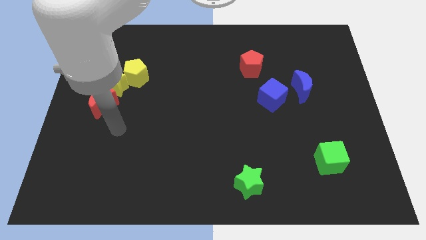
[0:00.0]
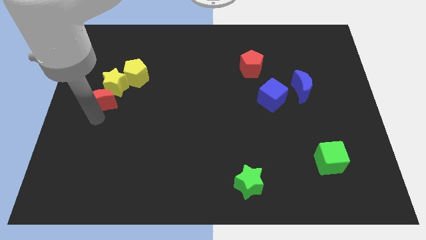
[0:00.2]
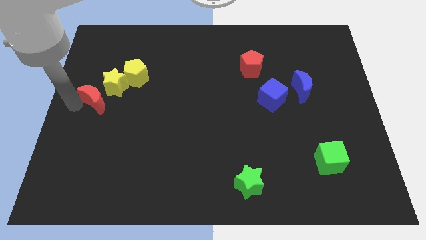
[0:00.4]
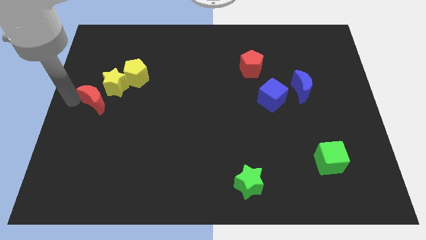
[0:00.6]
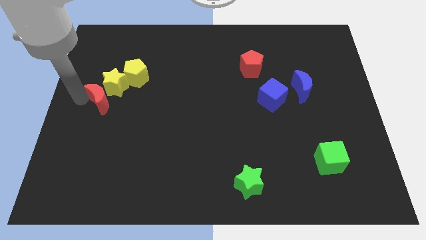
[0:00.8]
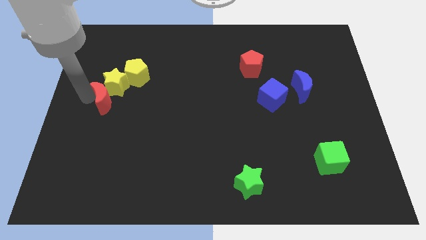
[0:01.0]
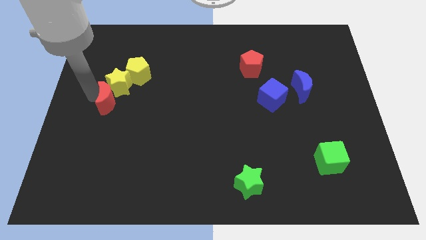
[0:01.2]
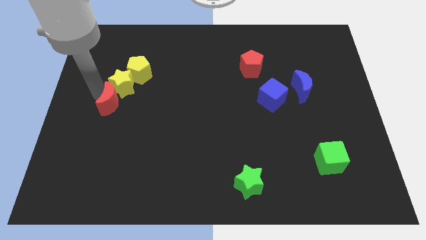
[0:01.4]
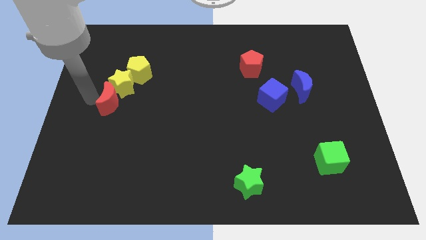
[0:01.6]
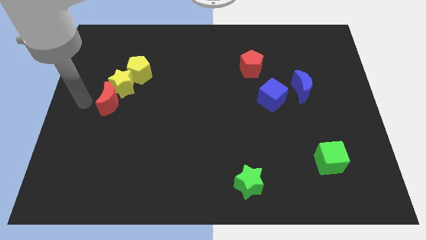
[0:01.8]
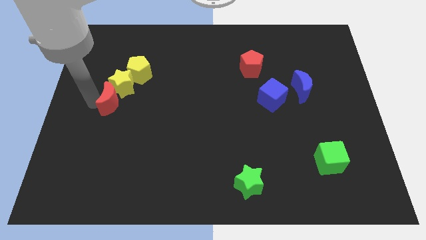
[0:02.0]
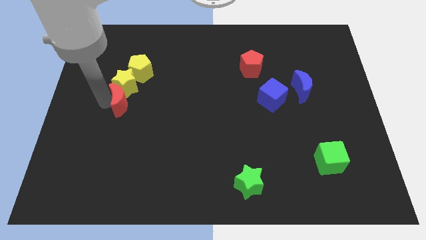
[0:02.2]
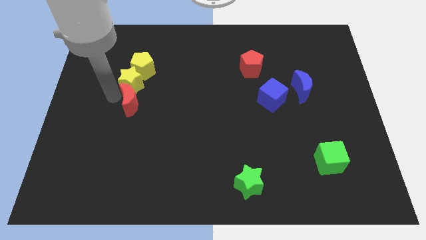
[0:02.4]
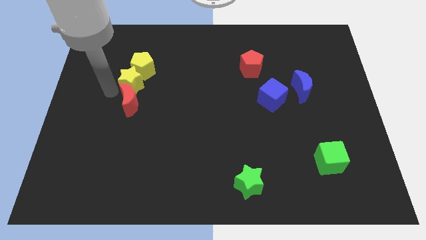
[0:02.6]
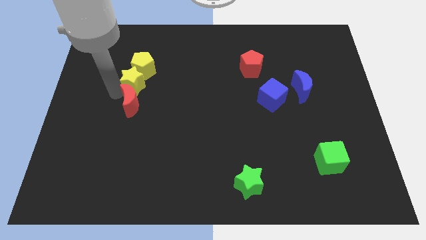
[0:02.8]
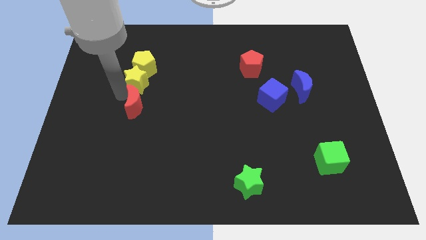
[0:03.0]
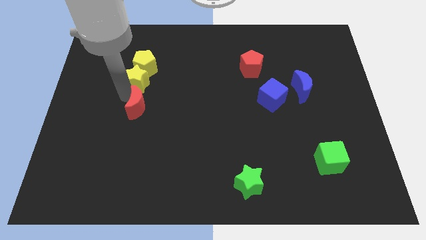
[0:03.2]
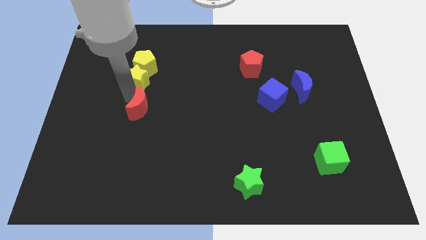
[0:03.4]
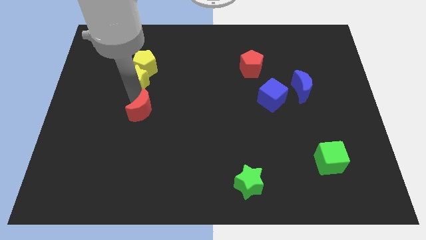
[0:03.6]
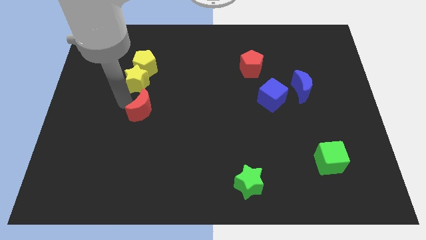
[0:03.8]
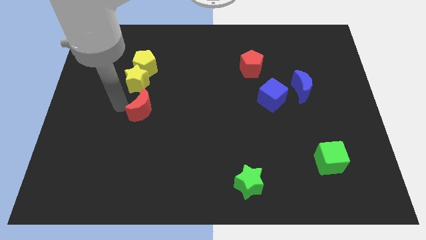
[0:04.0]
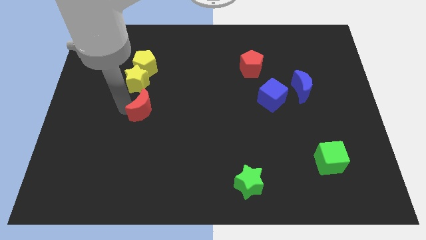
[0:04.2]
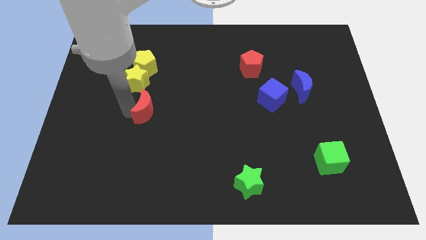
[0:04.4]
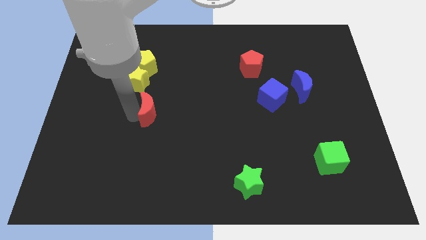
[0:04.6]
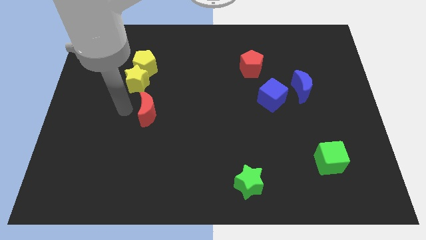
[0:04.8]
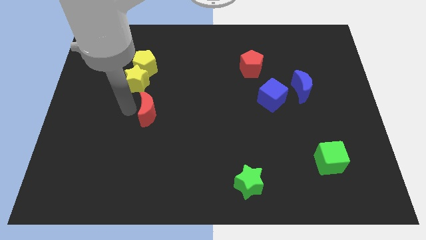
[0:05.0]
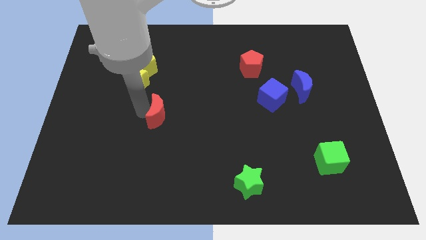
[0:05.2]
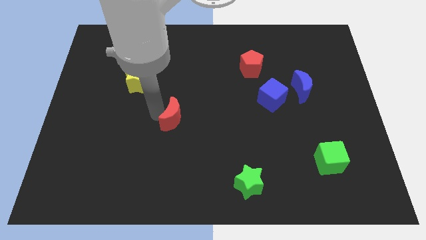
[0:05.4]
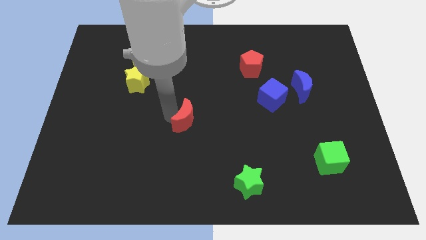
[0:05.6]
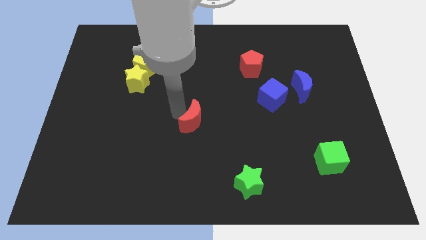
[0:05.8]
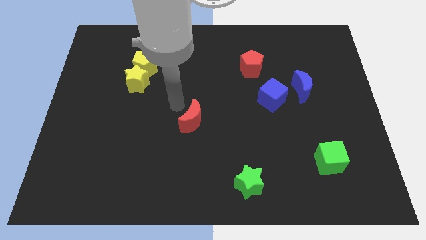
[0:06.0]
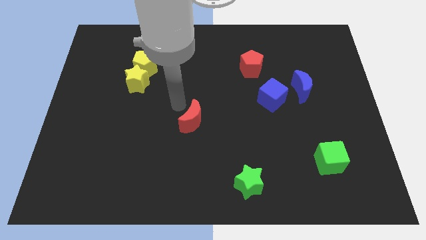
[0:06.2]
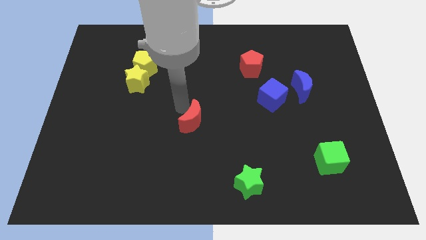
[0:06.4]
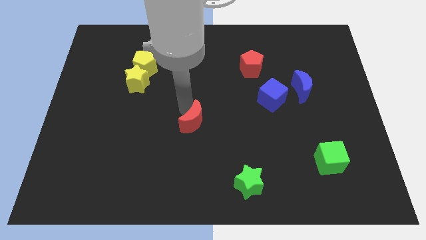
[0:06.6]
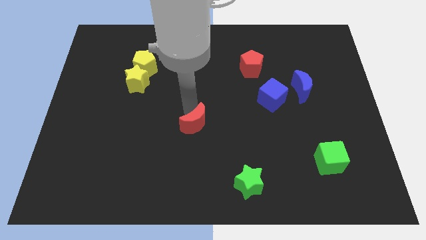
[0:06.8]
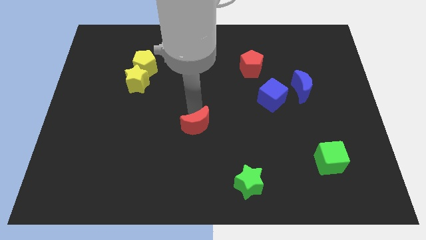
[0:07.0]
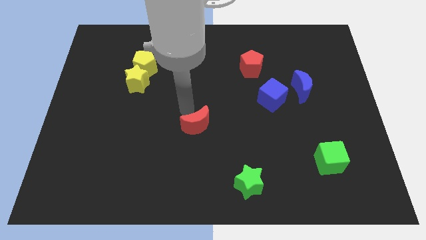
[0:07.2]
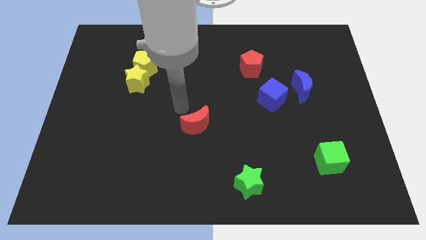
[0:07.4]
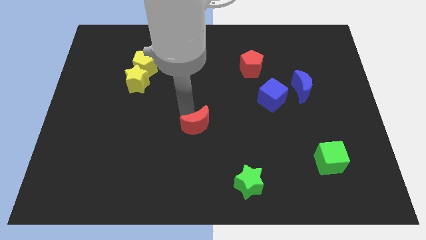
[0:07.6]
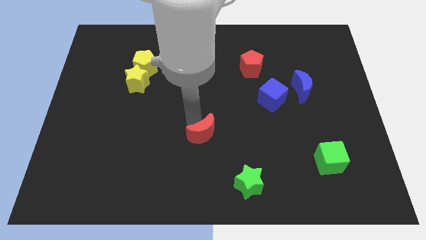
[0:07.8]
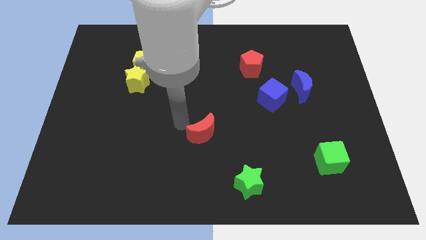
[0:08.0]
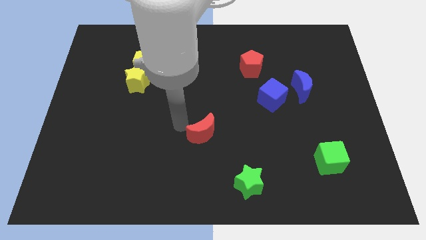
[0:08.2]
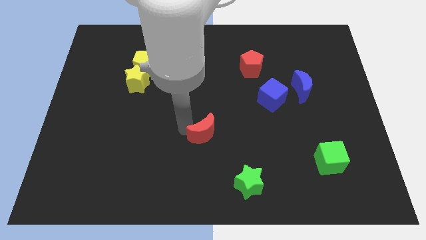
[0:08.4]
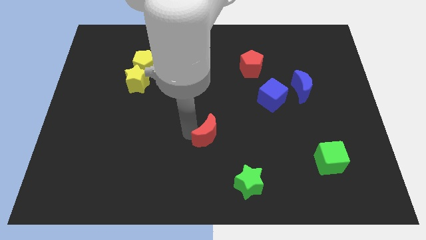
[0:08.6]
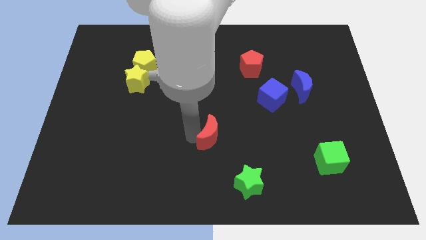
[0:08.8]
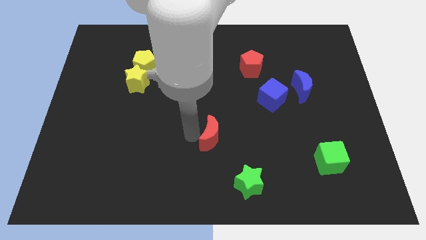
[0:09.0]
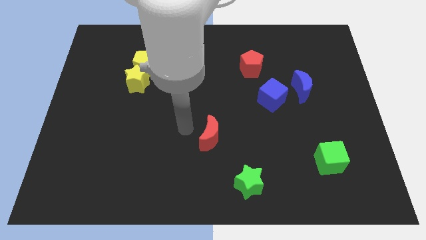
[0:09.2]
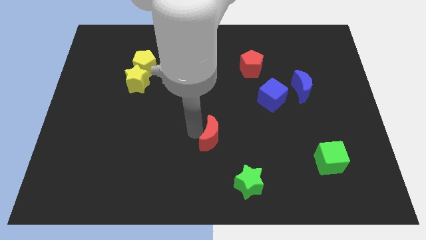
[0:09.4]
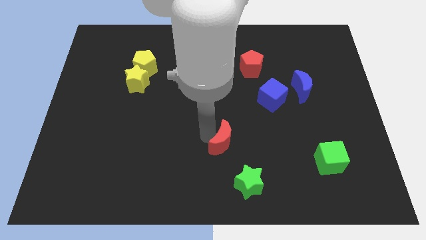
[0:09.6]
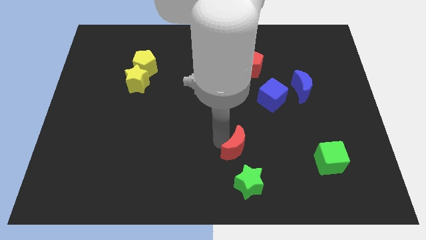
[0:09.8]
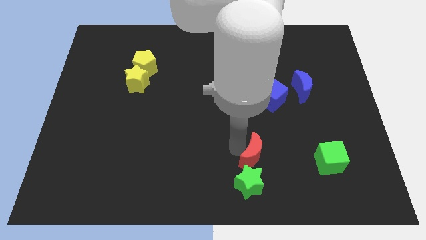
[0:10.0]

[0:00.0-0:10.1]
slide the red moon diagonally up and to the right of the green star

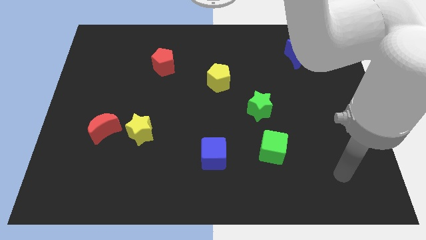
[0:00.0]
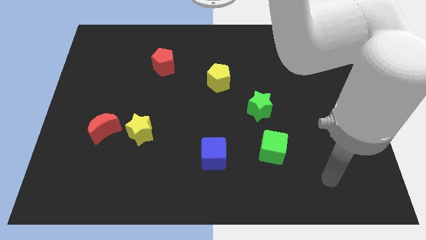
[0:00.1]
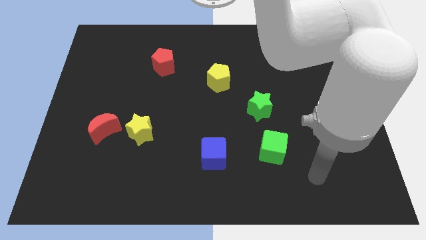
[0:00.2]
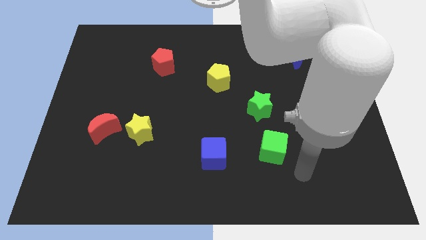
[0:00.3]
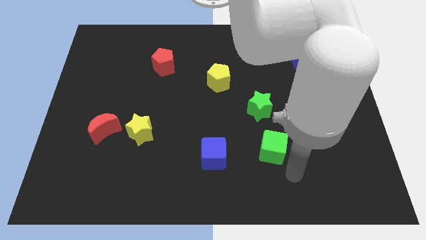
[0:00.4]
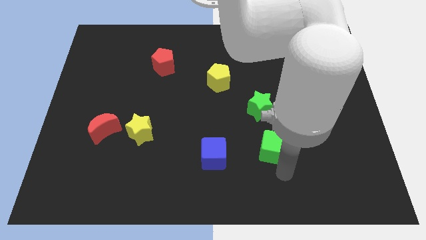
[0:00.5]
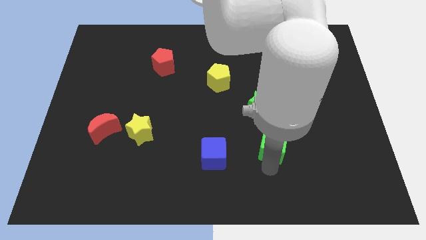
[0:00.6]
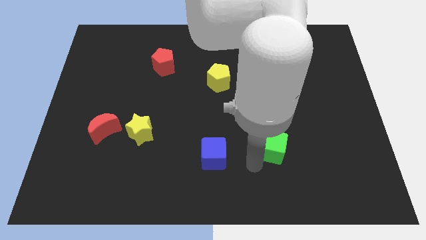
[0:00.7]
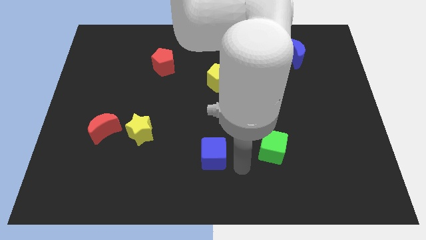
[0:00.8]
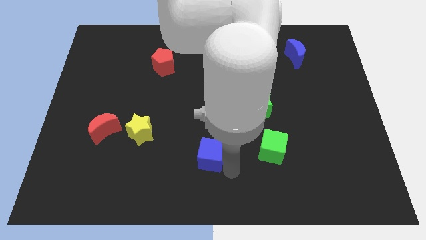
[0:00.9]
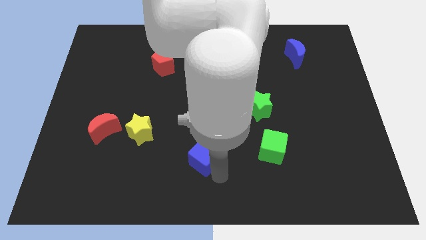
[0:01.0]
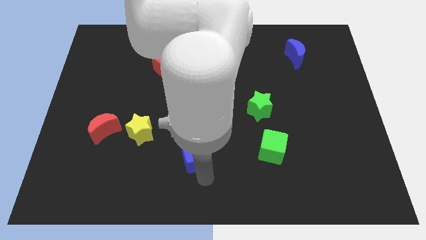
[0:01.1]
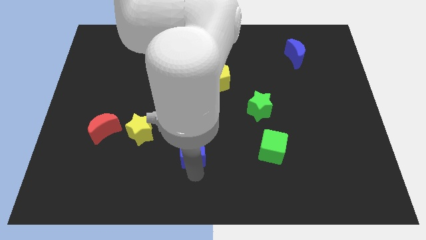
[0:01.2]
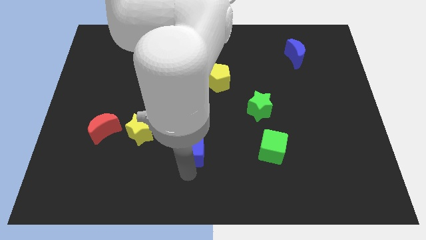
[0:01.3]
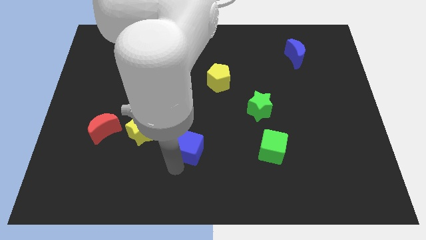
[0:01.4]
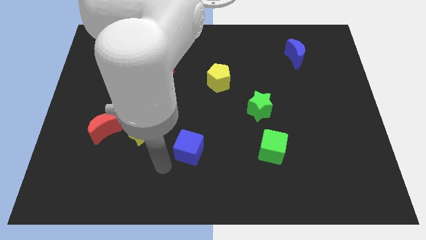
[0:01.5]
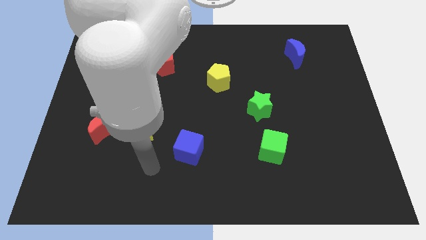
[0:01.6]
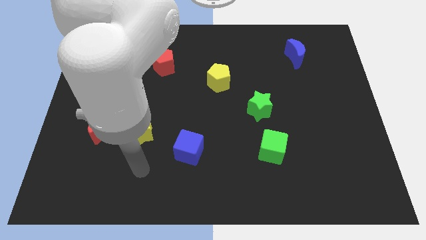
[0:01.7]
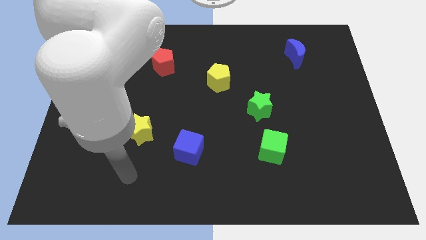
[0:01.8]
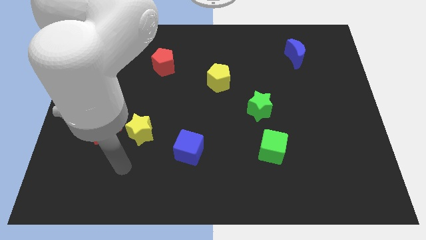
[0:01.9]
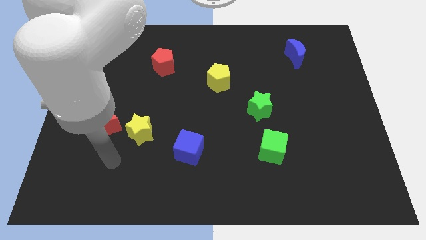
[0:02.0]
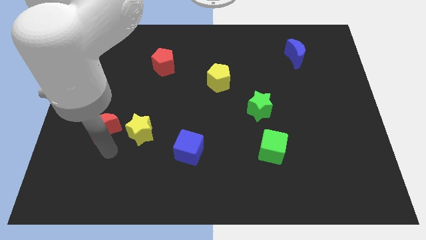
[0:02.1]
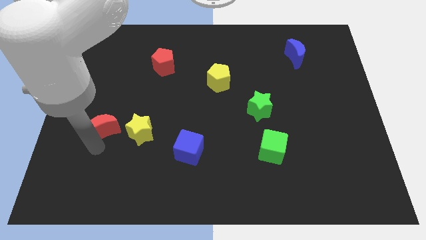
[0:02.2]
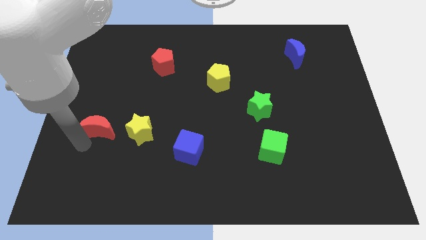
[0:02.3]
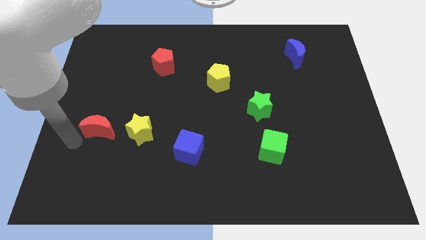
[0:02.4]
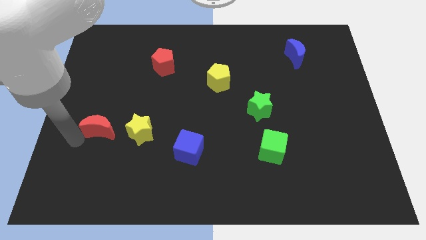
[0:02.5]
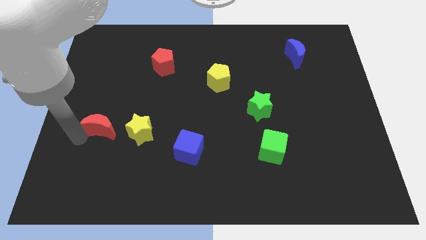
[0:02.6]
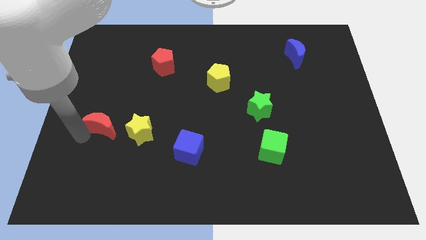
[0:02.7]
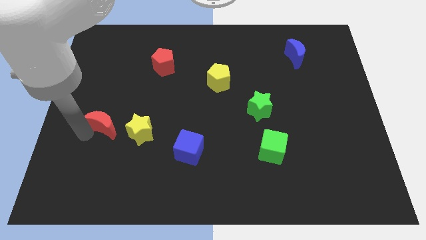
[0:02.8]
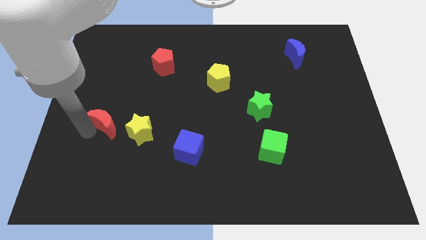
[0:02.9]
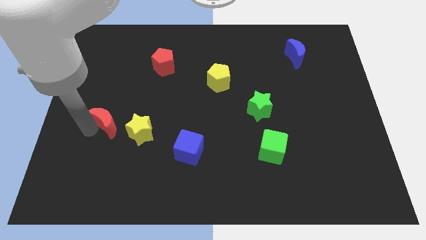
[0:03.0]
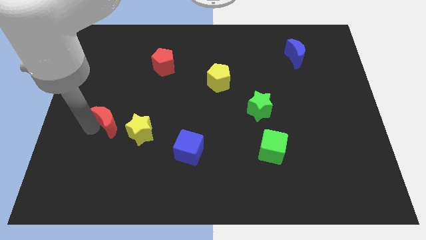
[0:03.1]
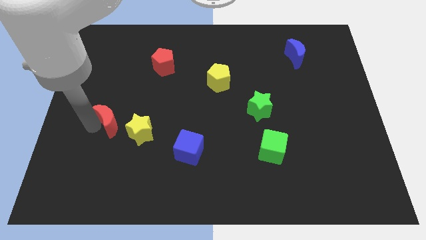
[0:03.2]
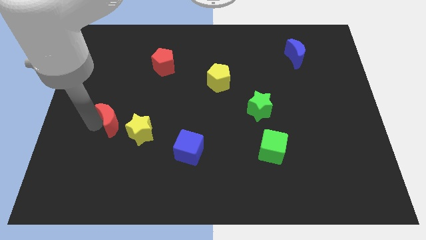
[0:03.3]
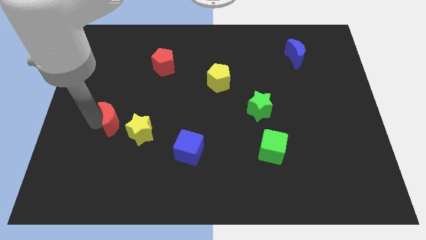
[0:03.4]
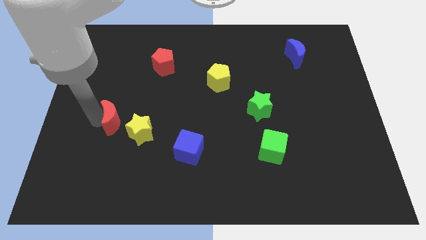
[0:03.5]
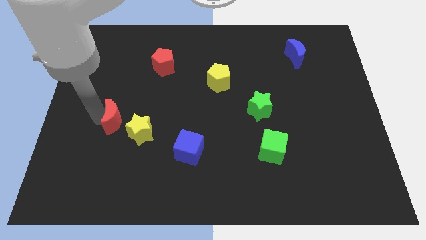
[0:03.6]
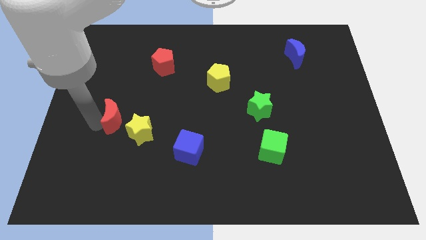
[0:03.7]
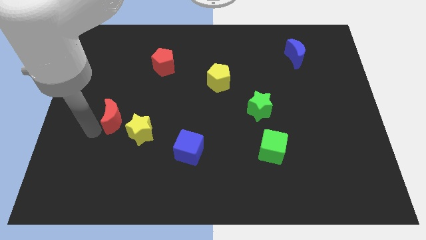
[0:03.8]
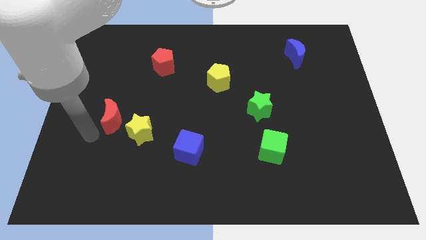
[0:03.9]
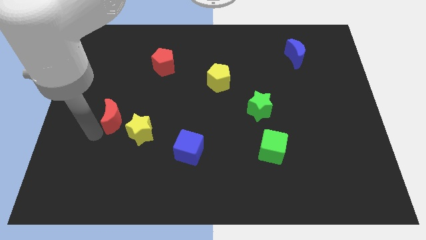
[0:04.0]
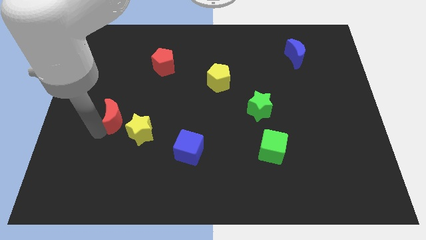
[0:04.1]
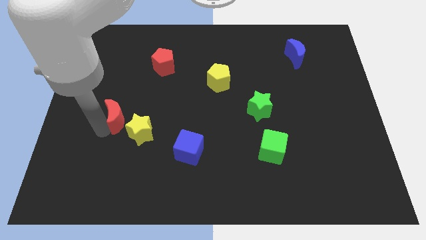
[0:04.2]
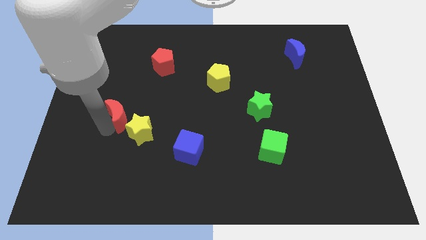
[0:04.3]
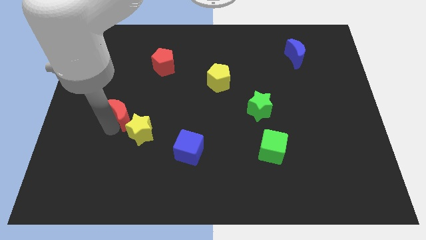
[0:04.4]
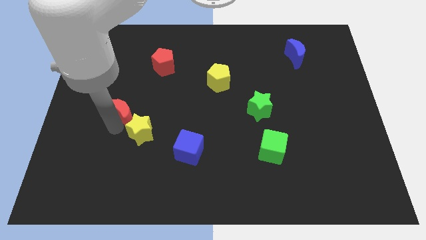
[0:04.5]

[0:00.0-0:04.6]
push the red moon above the yellow star
